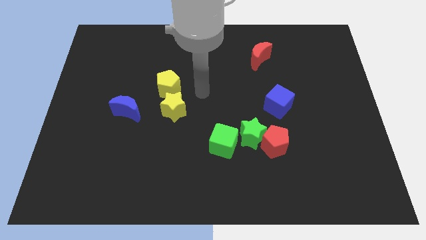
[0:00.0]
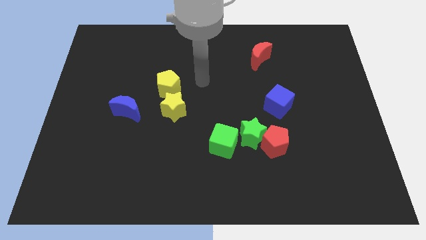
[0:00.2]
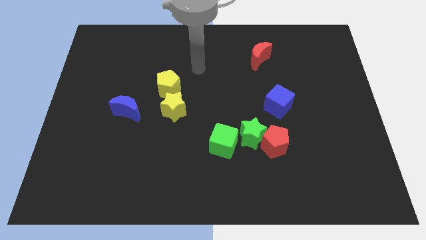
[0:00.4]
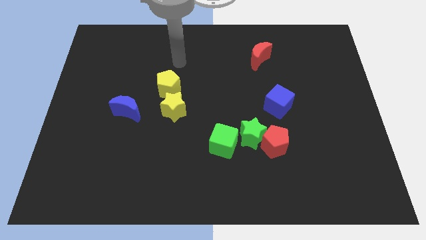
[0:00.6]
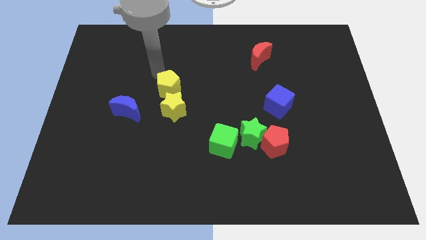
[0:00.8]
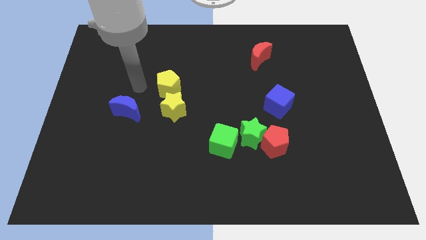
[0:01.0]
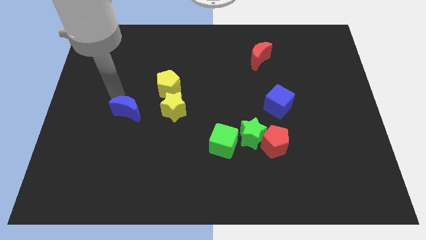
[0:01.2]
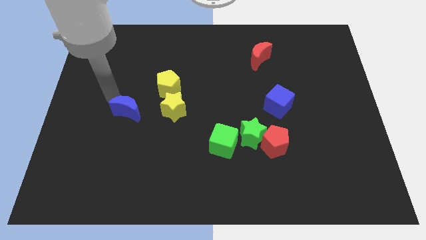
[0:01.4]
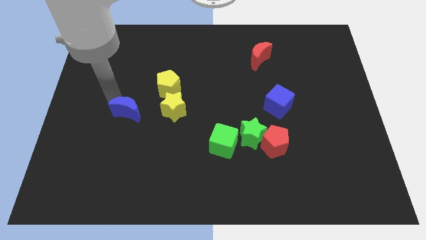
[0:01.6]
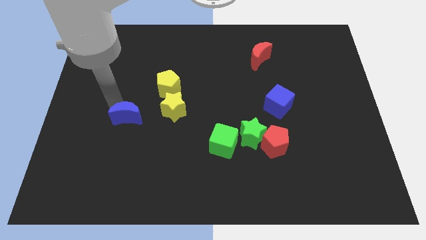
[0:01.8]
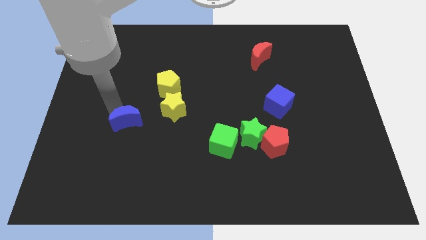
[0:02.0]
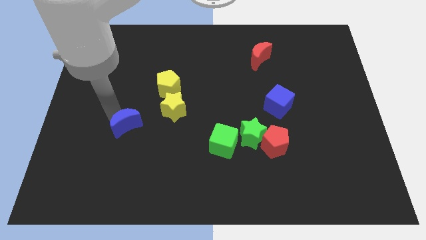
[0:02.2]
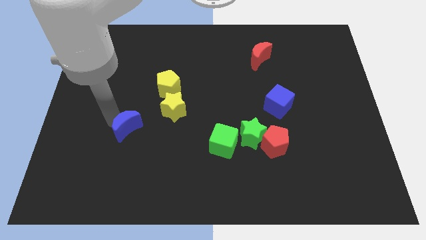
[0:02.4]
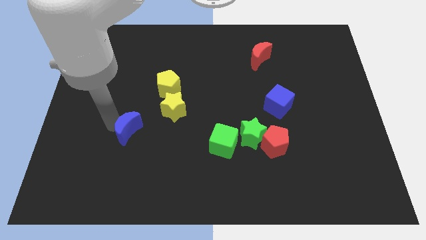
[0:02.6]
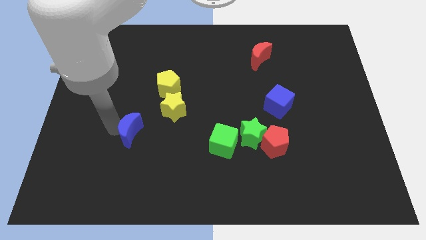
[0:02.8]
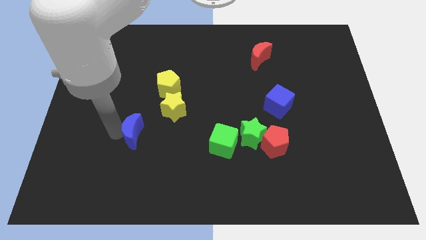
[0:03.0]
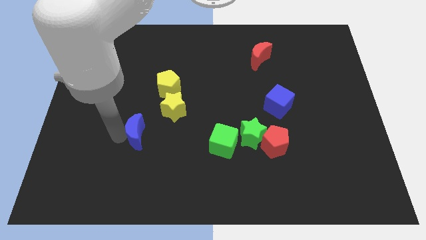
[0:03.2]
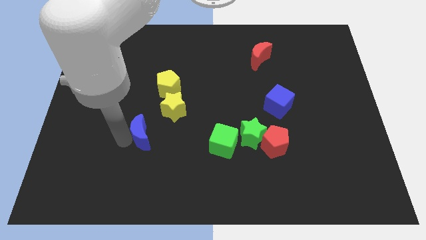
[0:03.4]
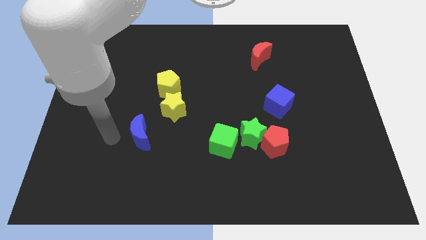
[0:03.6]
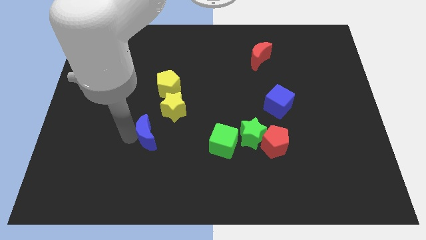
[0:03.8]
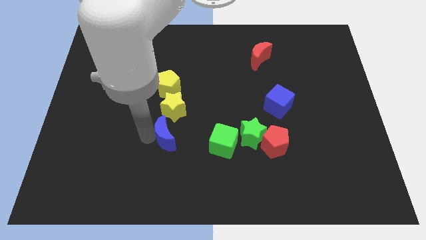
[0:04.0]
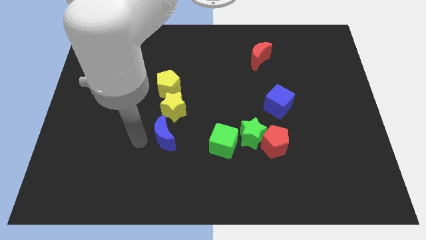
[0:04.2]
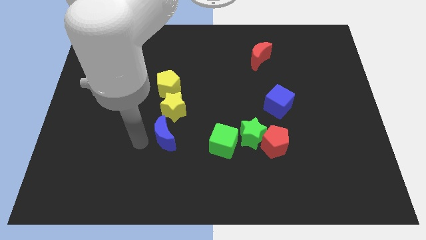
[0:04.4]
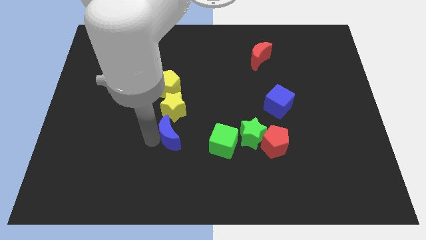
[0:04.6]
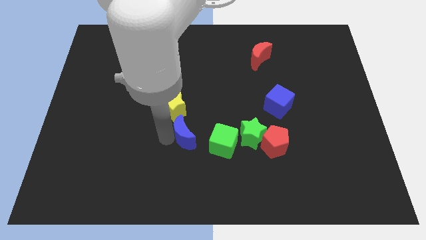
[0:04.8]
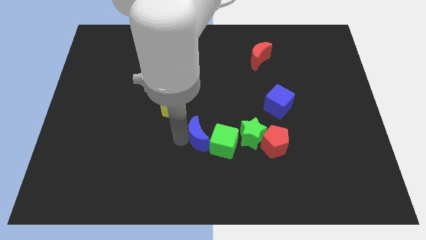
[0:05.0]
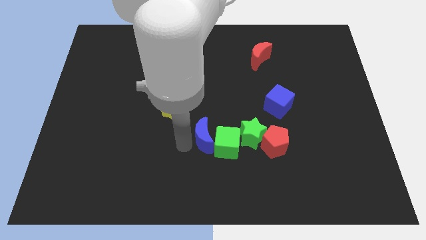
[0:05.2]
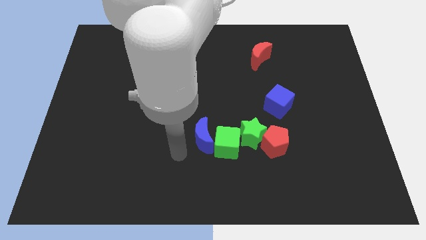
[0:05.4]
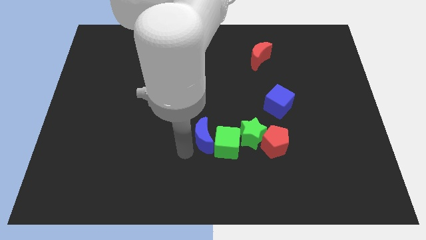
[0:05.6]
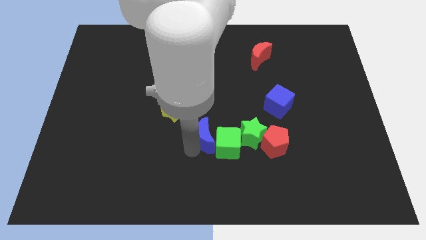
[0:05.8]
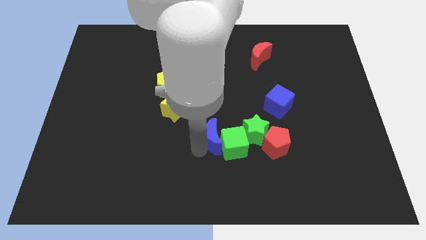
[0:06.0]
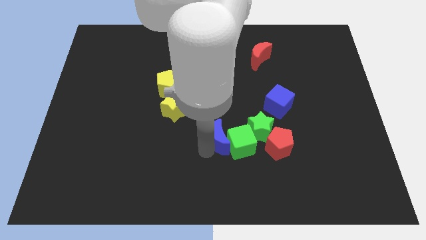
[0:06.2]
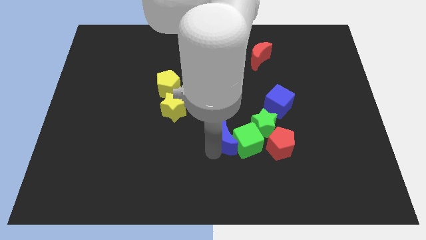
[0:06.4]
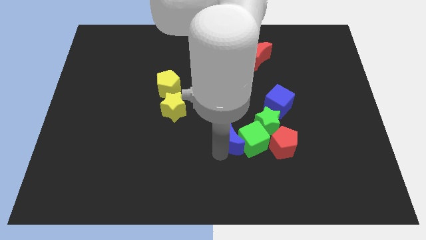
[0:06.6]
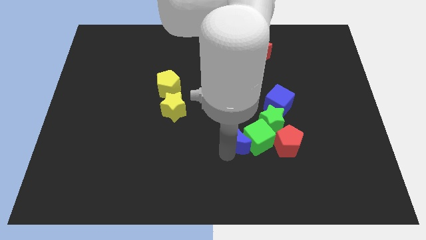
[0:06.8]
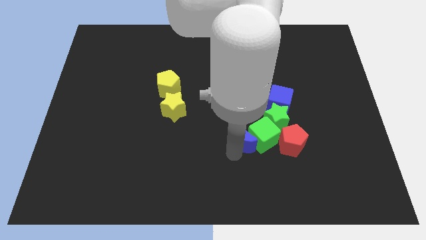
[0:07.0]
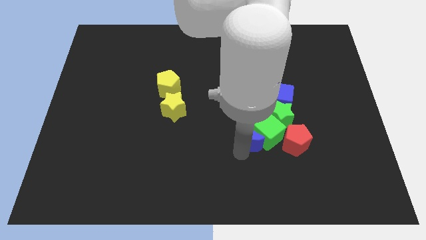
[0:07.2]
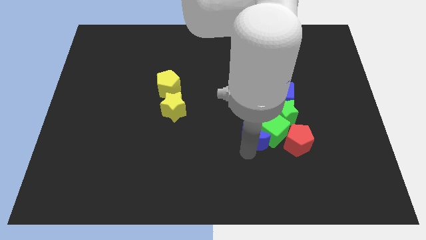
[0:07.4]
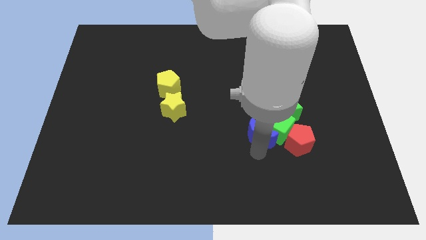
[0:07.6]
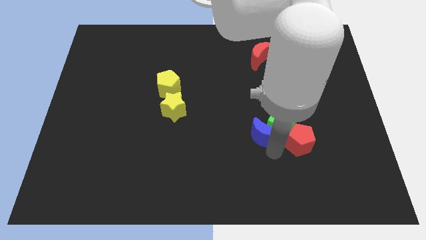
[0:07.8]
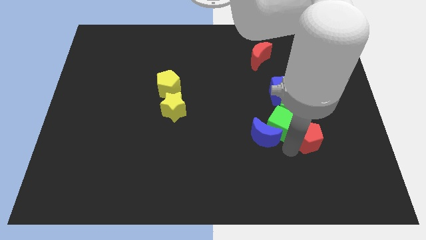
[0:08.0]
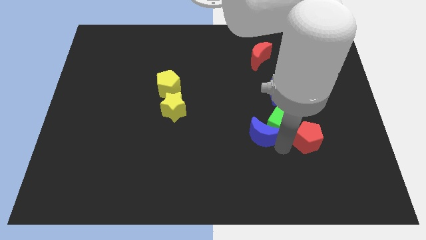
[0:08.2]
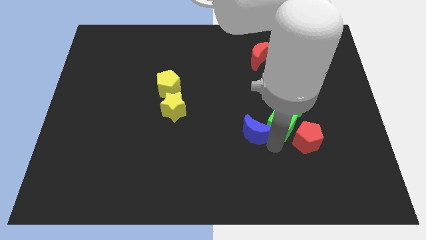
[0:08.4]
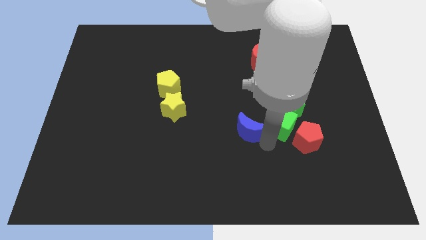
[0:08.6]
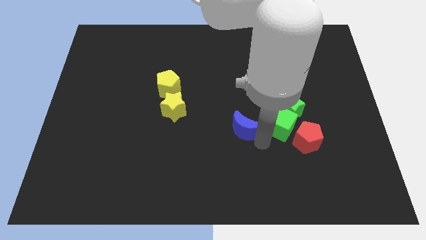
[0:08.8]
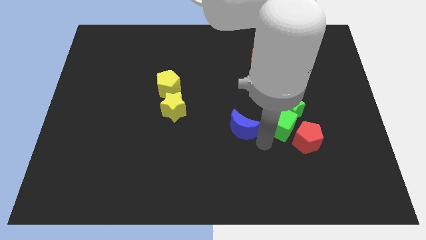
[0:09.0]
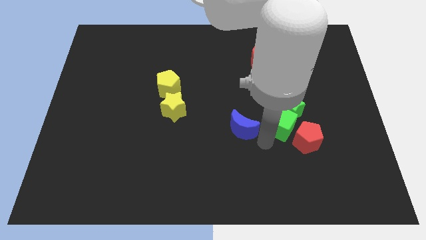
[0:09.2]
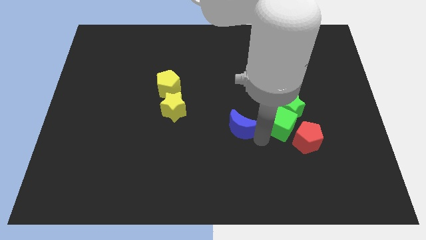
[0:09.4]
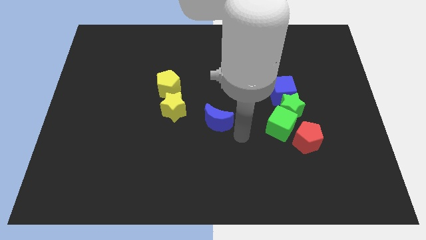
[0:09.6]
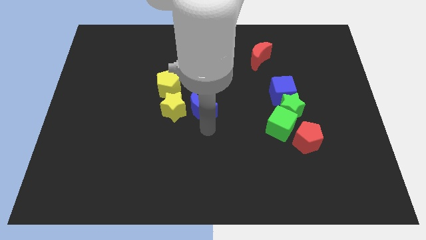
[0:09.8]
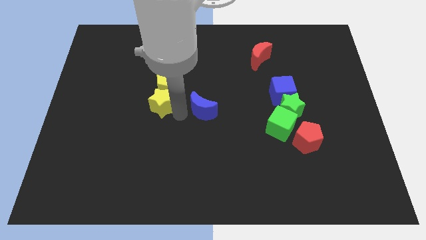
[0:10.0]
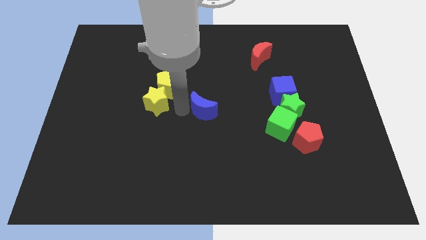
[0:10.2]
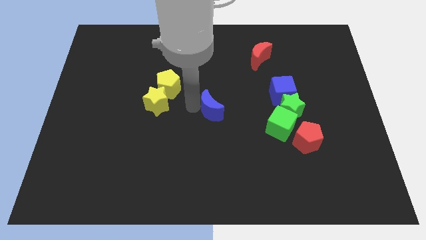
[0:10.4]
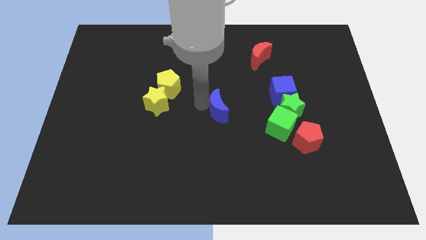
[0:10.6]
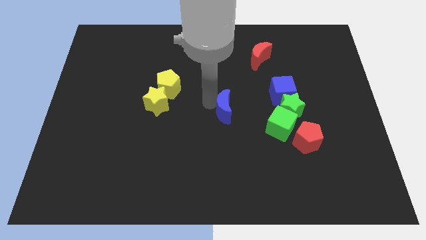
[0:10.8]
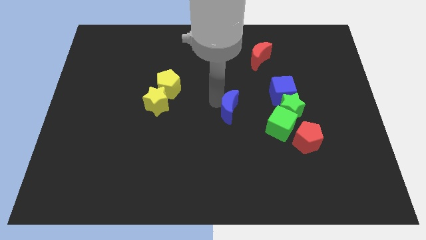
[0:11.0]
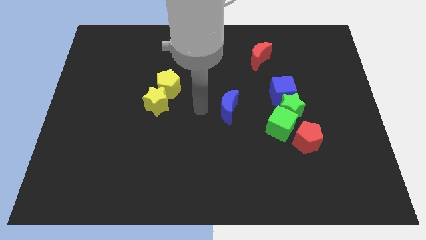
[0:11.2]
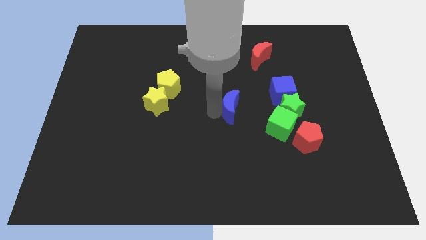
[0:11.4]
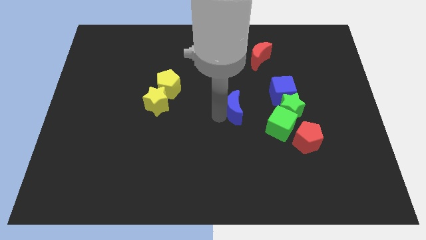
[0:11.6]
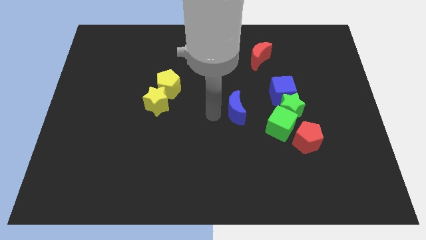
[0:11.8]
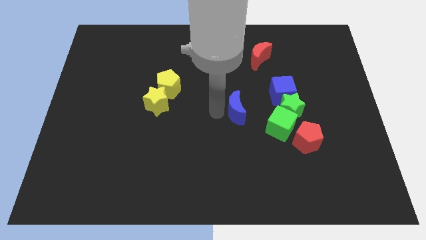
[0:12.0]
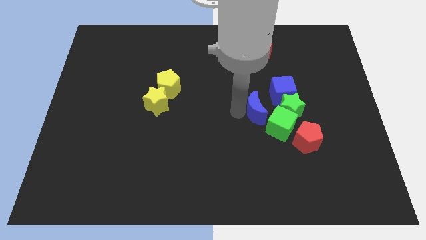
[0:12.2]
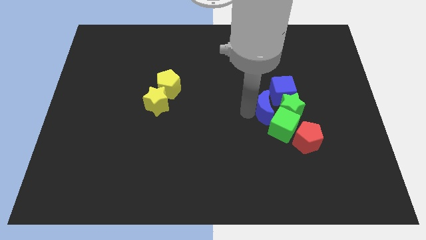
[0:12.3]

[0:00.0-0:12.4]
put the blue moon towards the green star

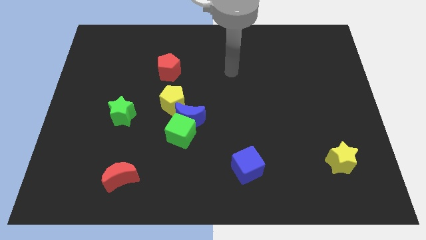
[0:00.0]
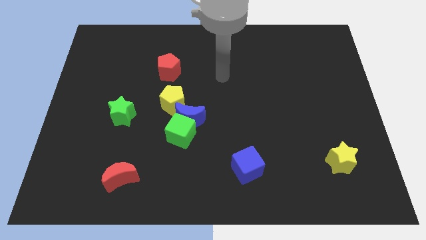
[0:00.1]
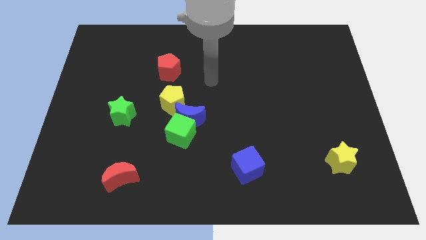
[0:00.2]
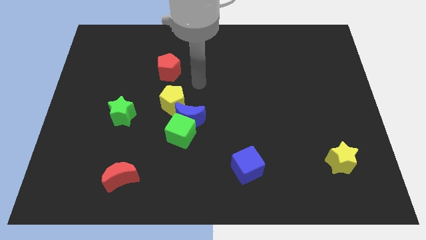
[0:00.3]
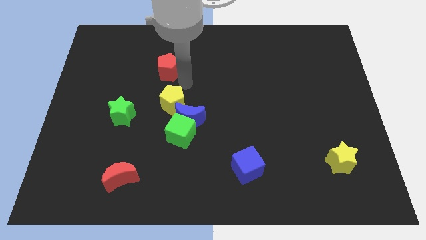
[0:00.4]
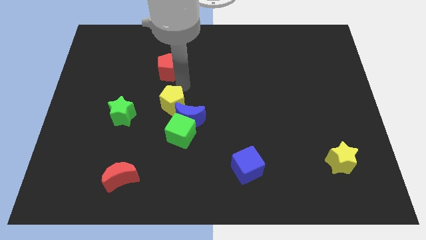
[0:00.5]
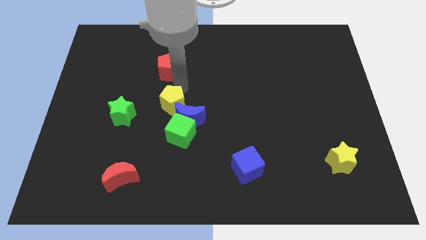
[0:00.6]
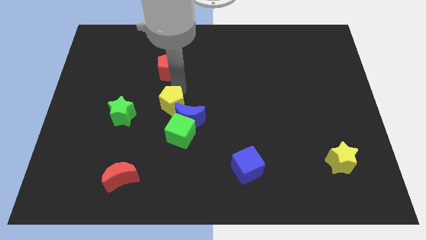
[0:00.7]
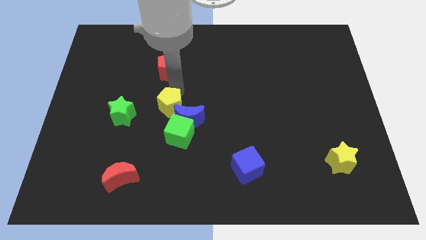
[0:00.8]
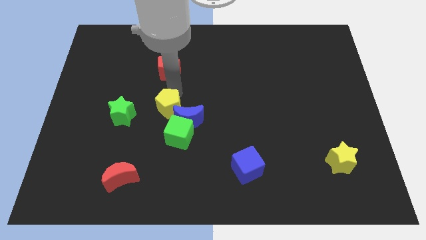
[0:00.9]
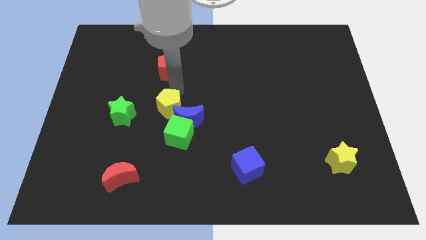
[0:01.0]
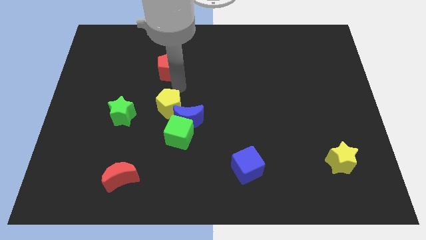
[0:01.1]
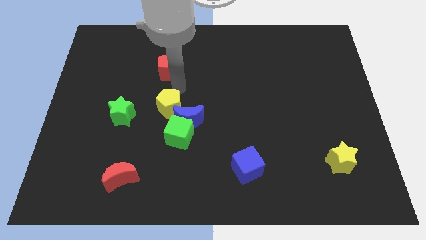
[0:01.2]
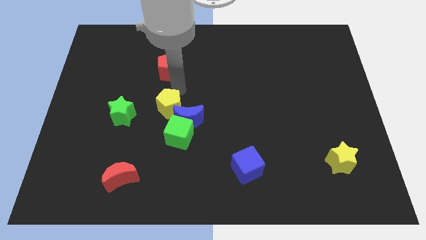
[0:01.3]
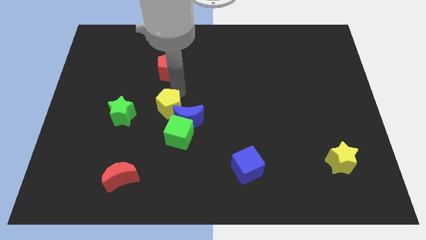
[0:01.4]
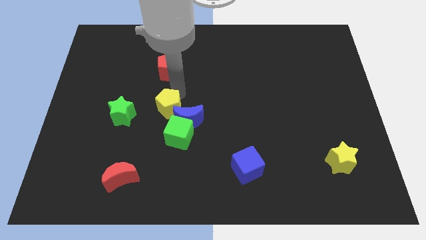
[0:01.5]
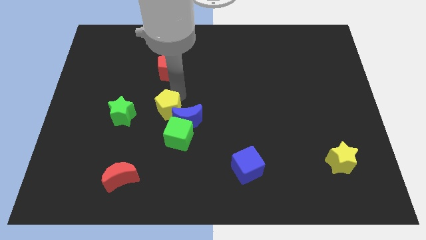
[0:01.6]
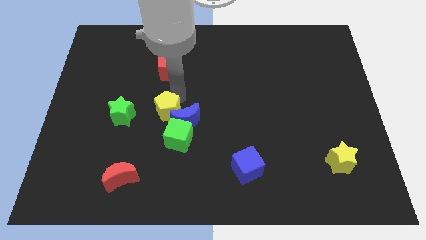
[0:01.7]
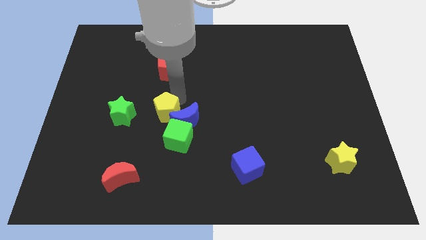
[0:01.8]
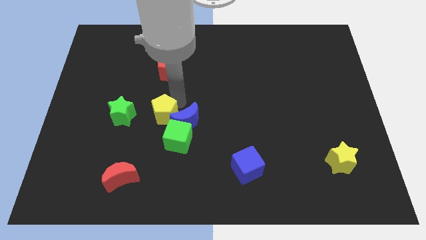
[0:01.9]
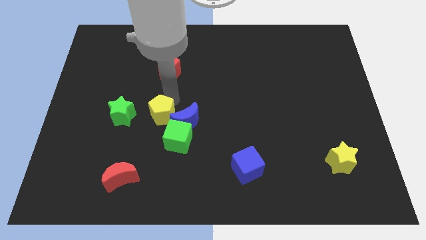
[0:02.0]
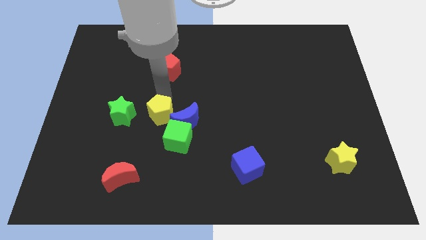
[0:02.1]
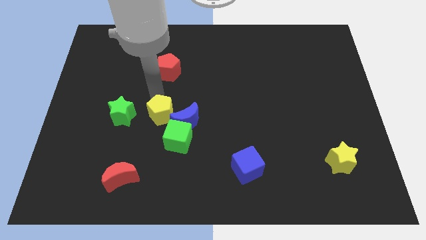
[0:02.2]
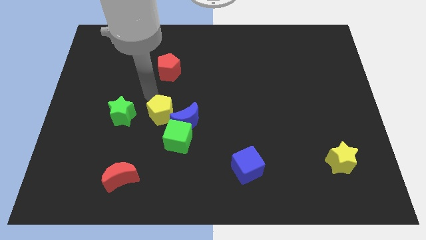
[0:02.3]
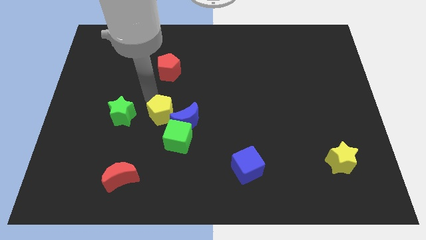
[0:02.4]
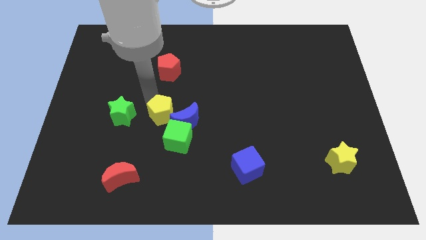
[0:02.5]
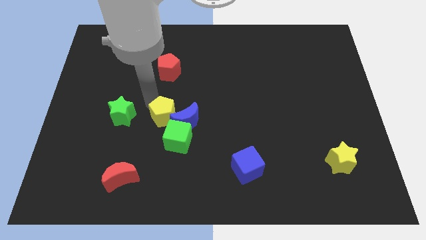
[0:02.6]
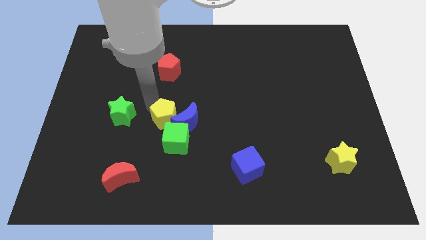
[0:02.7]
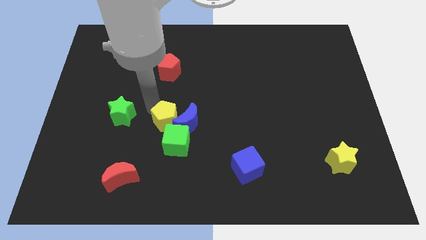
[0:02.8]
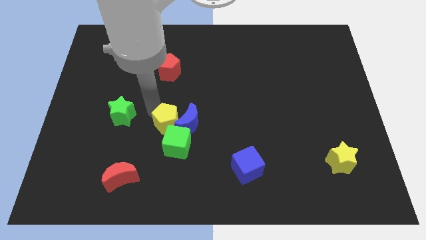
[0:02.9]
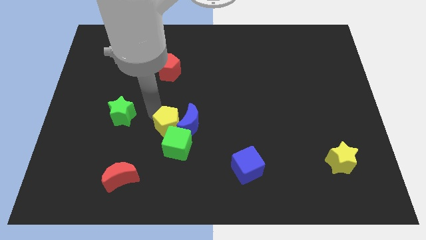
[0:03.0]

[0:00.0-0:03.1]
put the yellow pentagon towards the green cube
